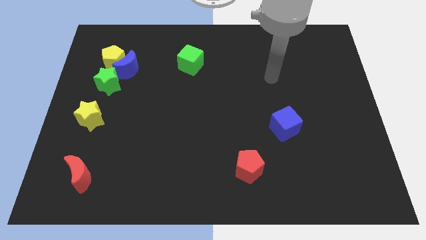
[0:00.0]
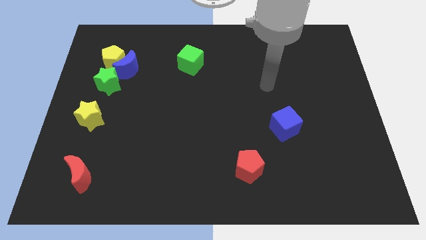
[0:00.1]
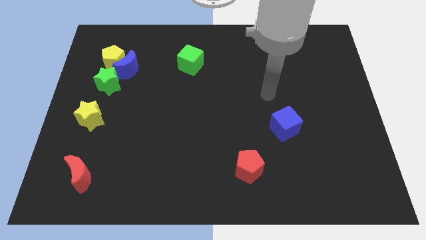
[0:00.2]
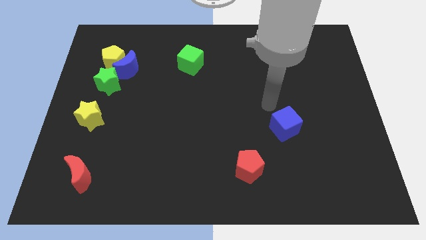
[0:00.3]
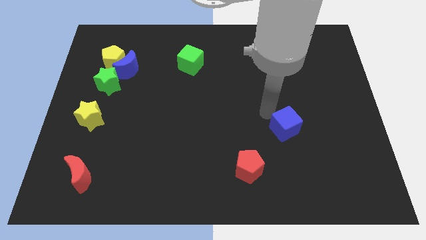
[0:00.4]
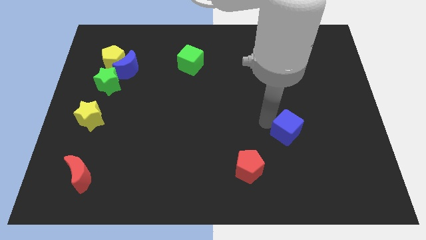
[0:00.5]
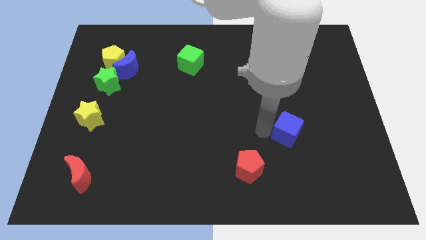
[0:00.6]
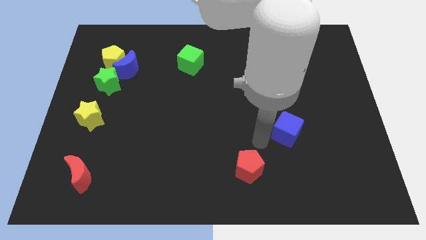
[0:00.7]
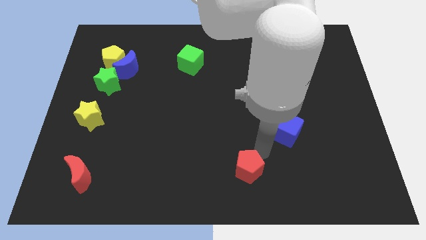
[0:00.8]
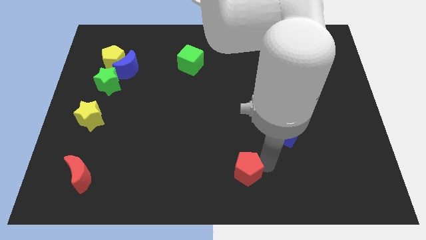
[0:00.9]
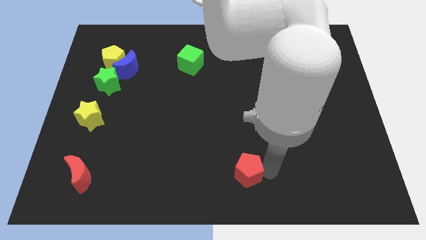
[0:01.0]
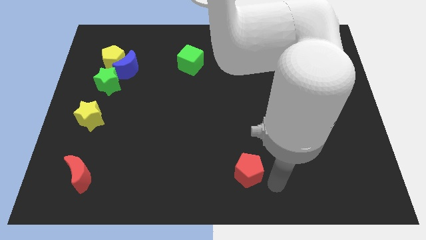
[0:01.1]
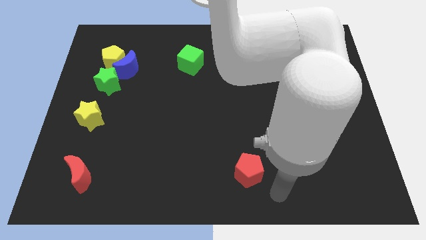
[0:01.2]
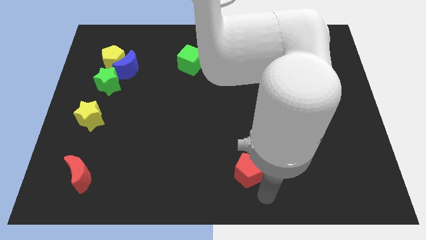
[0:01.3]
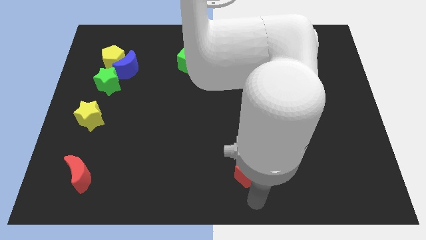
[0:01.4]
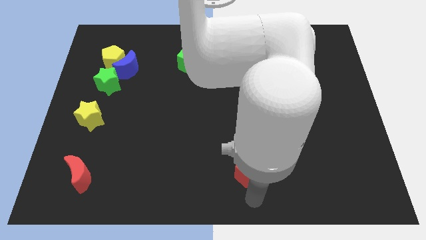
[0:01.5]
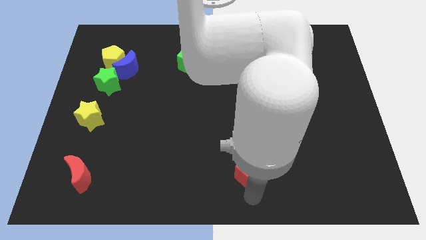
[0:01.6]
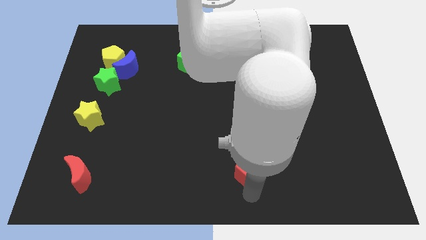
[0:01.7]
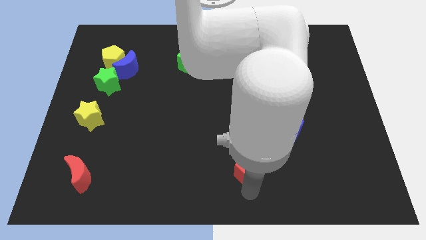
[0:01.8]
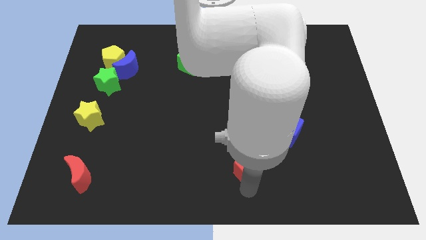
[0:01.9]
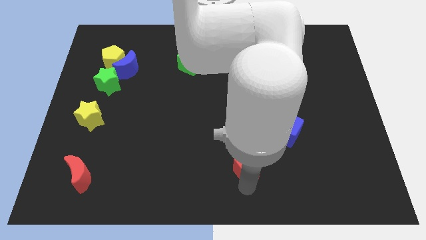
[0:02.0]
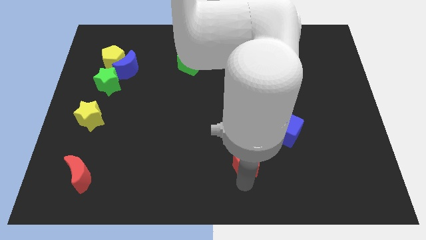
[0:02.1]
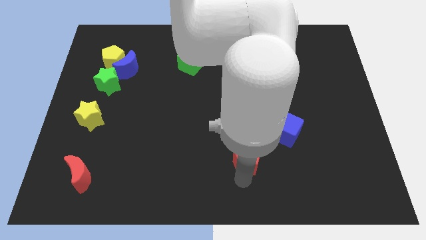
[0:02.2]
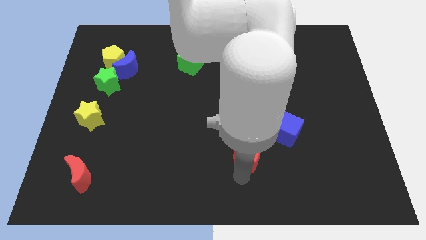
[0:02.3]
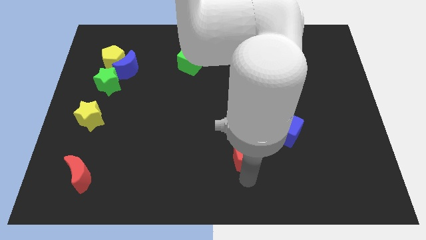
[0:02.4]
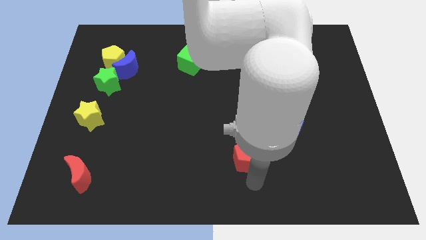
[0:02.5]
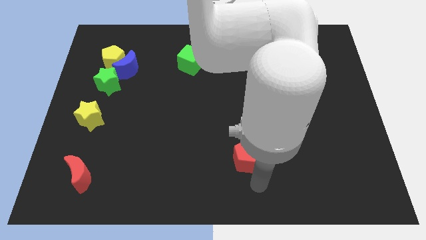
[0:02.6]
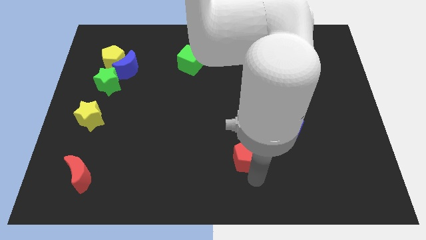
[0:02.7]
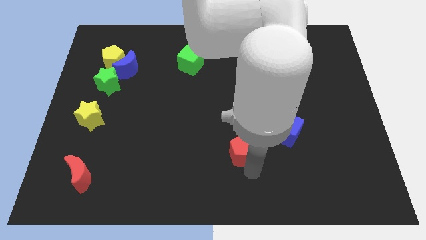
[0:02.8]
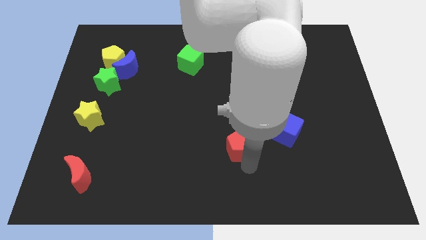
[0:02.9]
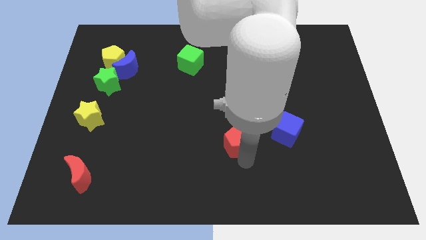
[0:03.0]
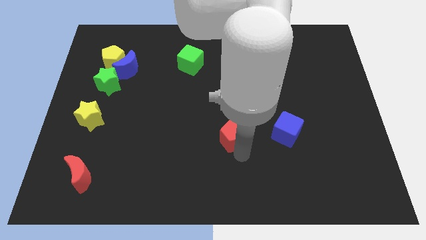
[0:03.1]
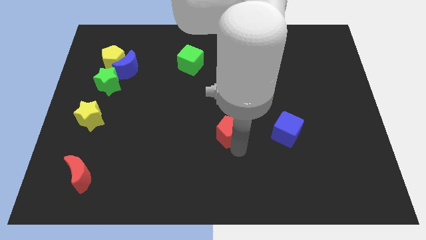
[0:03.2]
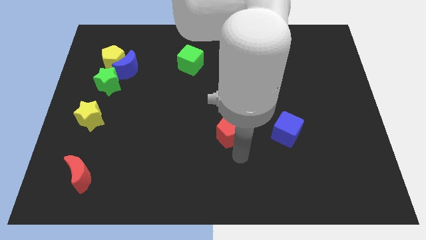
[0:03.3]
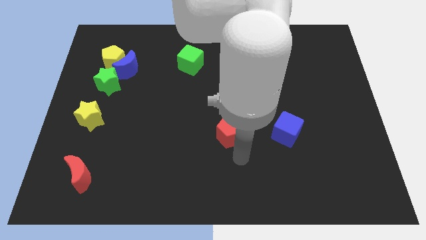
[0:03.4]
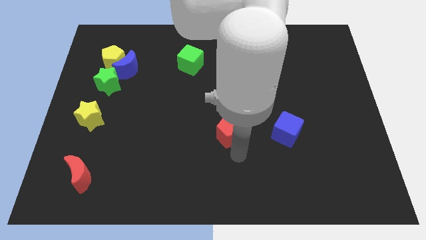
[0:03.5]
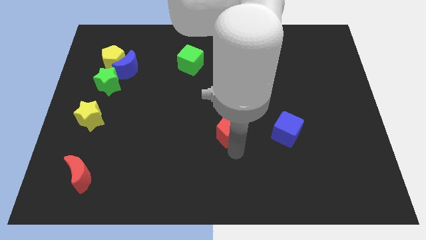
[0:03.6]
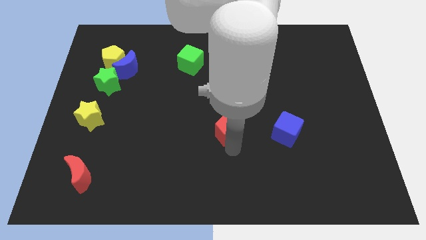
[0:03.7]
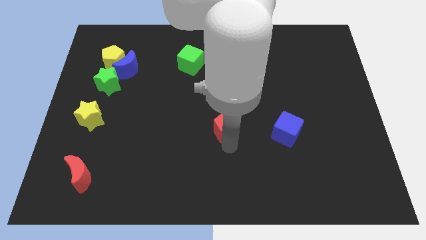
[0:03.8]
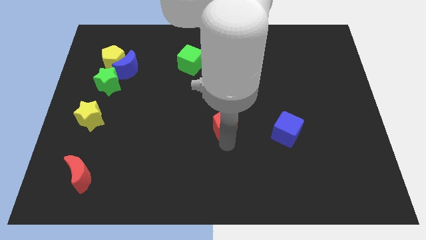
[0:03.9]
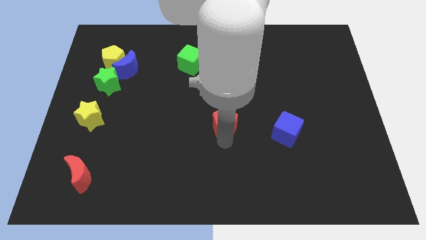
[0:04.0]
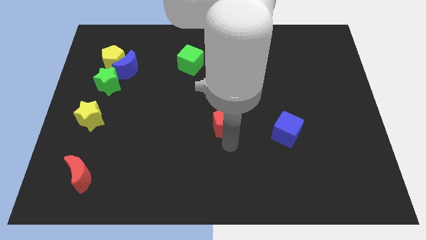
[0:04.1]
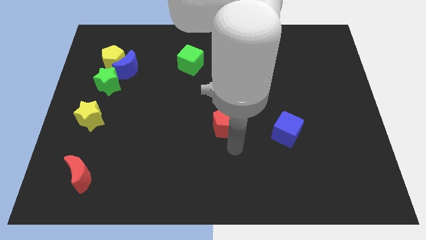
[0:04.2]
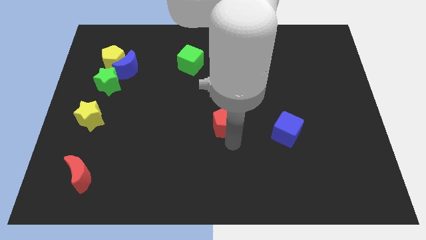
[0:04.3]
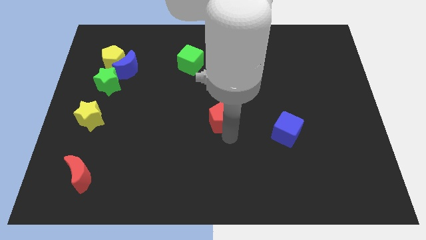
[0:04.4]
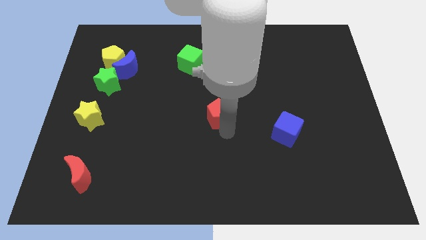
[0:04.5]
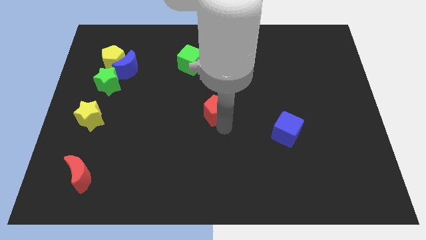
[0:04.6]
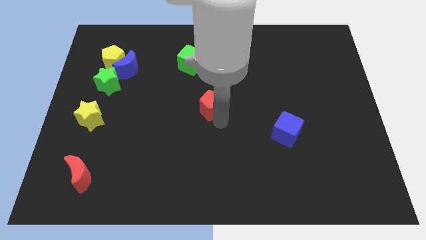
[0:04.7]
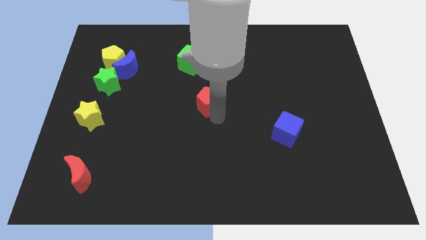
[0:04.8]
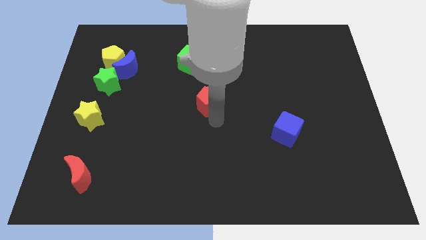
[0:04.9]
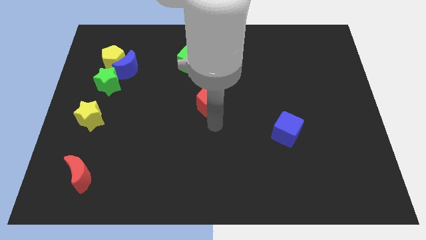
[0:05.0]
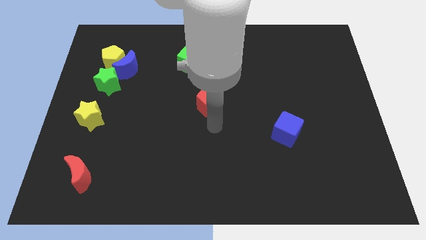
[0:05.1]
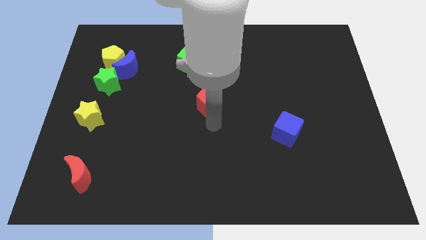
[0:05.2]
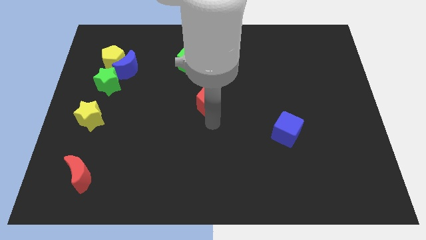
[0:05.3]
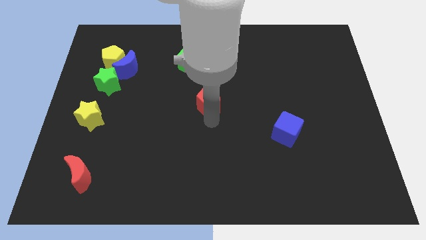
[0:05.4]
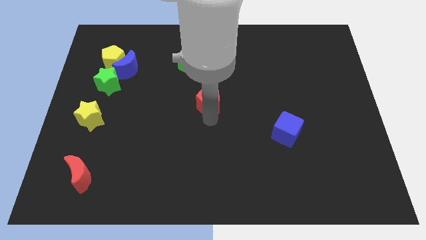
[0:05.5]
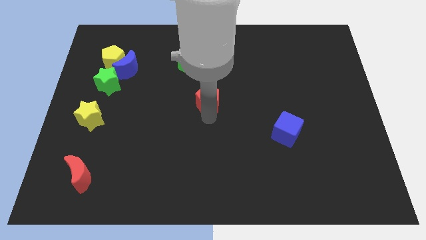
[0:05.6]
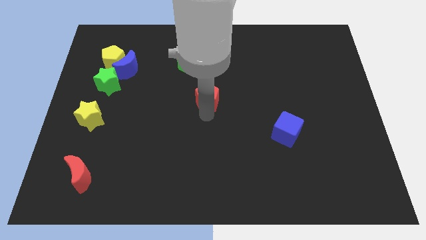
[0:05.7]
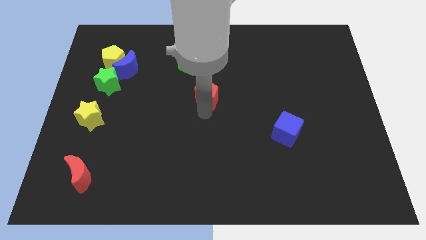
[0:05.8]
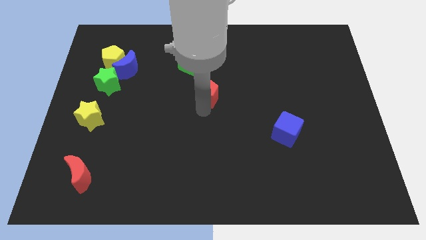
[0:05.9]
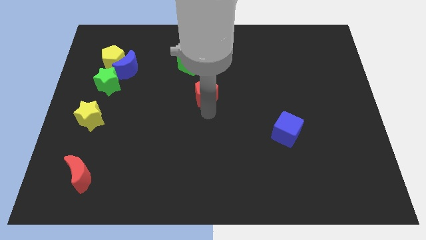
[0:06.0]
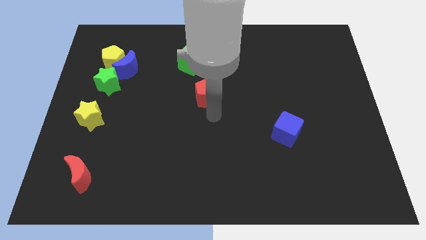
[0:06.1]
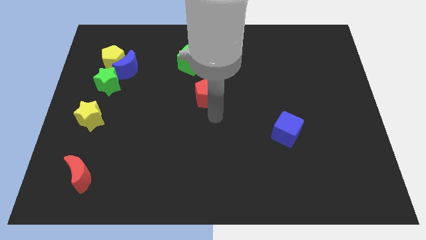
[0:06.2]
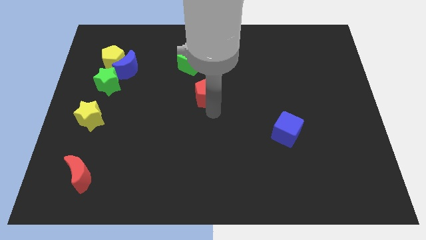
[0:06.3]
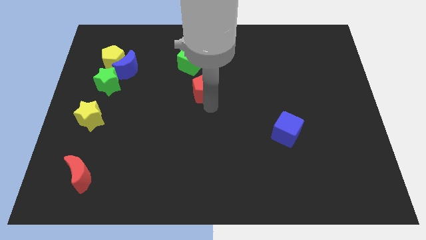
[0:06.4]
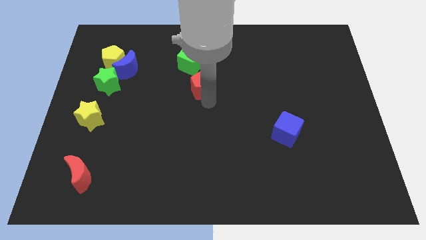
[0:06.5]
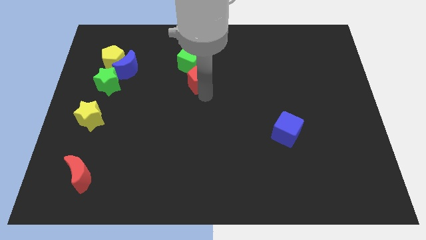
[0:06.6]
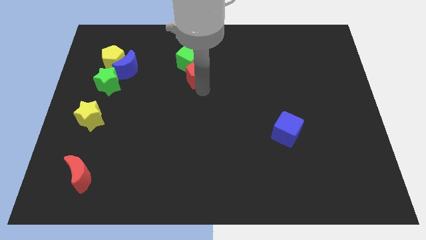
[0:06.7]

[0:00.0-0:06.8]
move the red pentagon next to the green cube

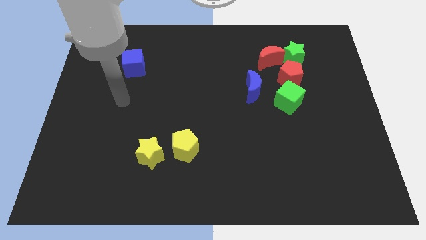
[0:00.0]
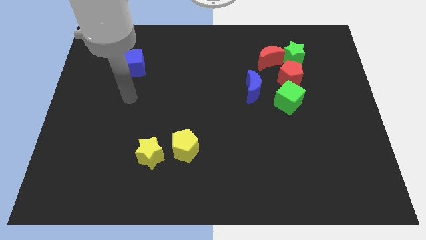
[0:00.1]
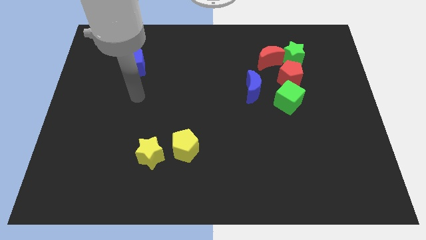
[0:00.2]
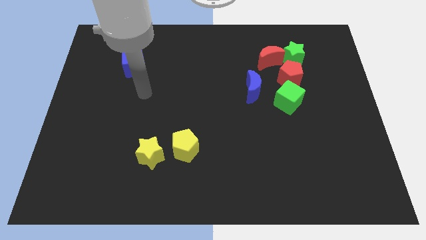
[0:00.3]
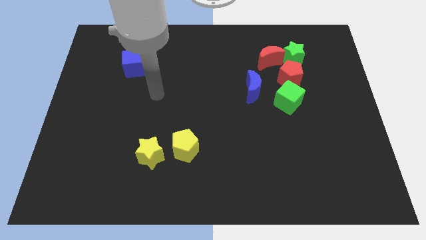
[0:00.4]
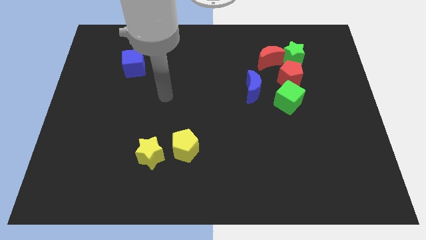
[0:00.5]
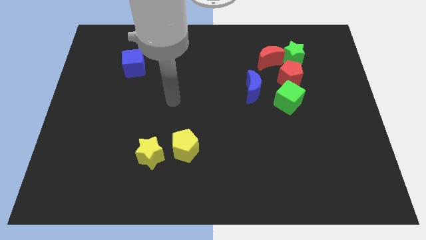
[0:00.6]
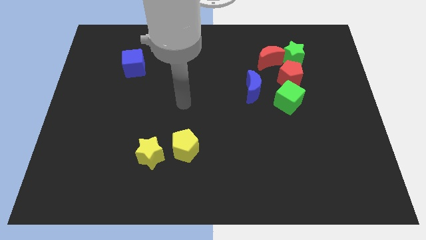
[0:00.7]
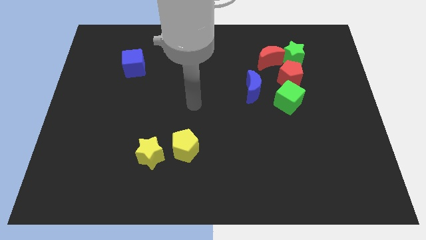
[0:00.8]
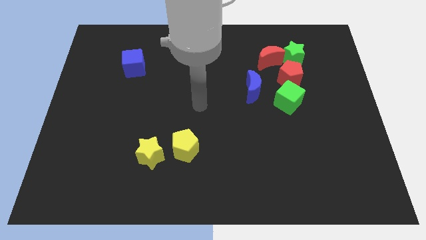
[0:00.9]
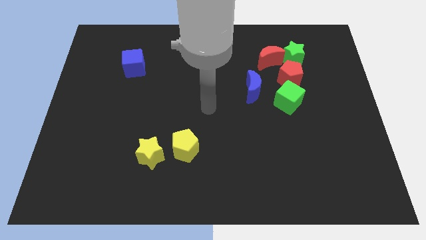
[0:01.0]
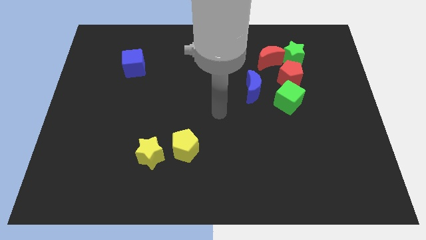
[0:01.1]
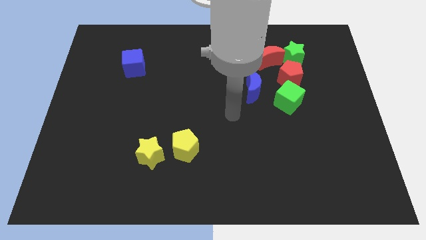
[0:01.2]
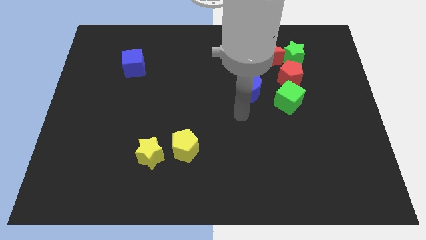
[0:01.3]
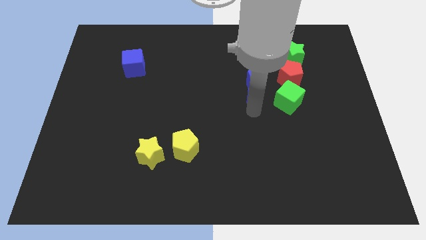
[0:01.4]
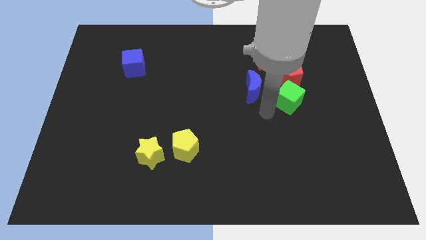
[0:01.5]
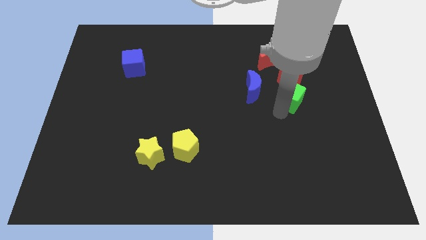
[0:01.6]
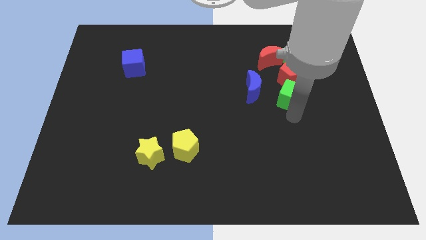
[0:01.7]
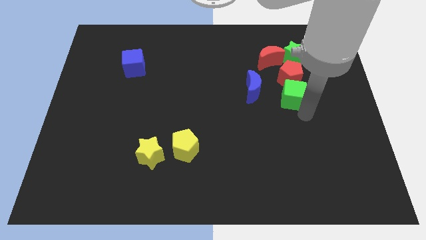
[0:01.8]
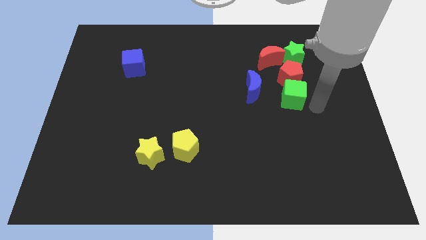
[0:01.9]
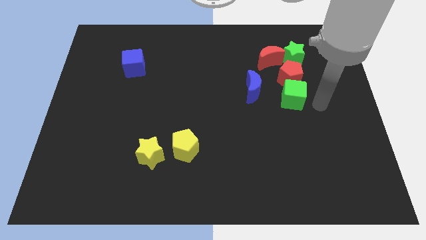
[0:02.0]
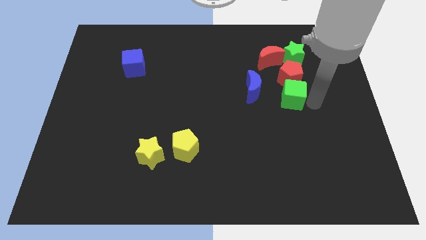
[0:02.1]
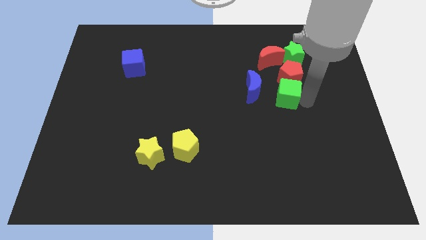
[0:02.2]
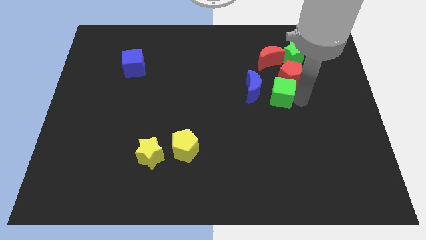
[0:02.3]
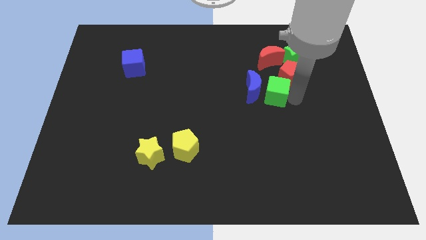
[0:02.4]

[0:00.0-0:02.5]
push the green cube next to the blue moon
